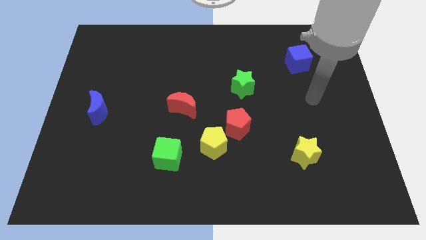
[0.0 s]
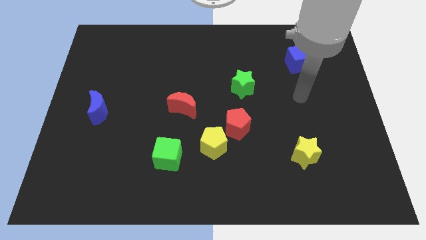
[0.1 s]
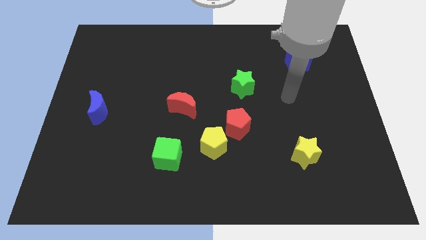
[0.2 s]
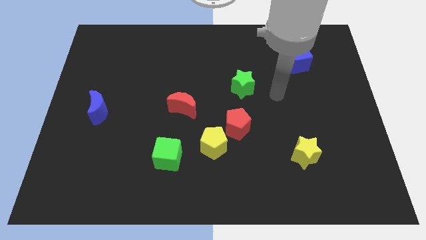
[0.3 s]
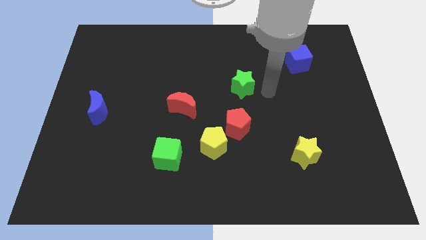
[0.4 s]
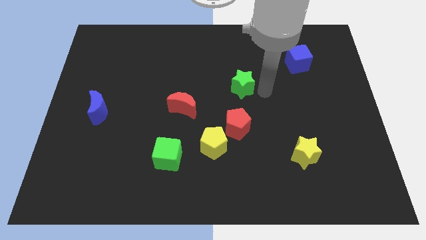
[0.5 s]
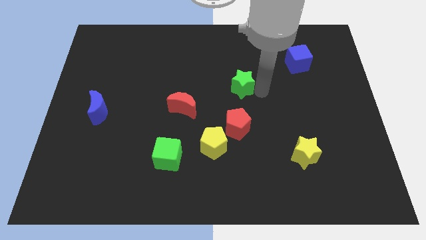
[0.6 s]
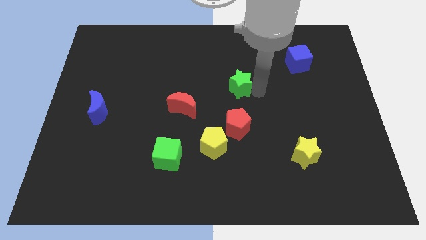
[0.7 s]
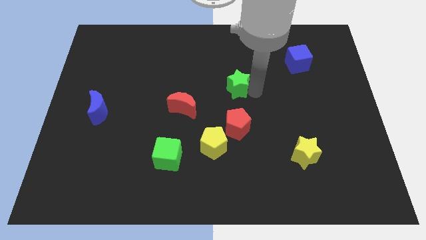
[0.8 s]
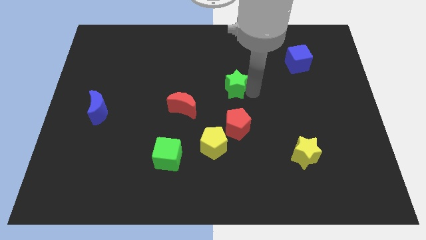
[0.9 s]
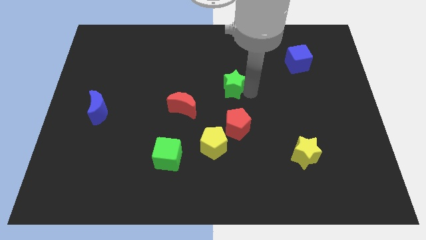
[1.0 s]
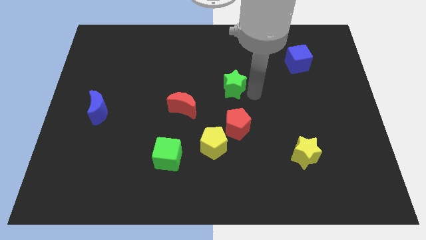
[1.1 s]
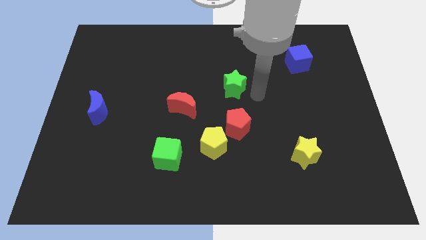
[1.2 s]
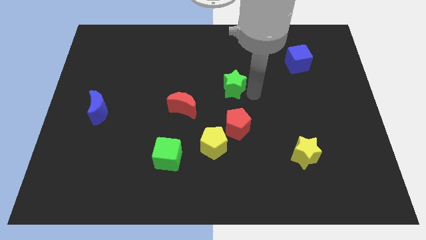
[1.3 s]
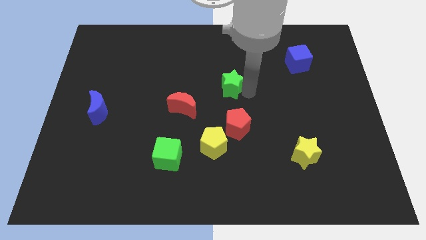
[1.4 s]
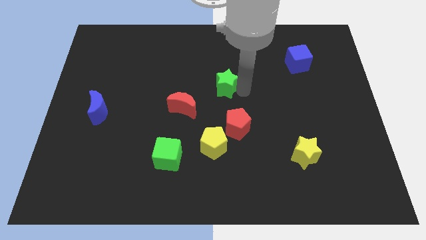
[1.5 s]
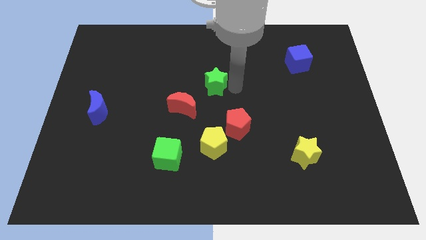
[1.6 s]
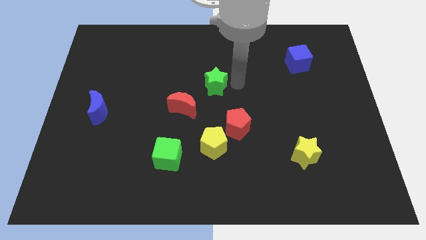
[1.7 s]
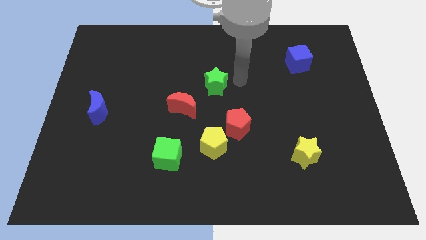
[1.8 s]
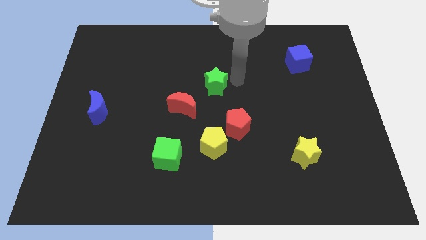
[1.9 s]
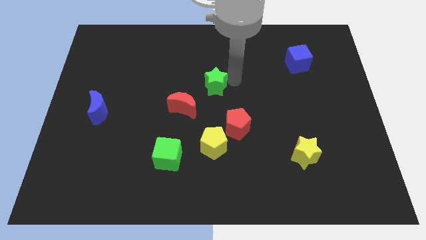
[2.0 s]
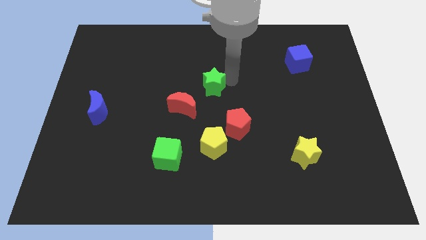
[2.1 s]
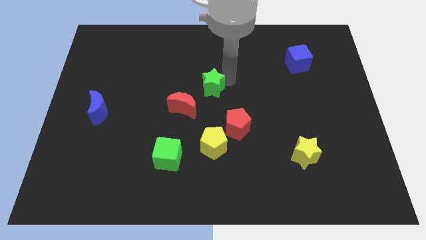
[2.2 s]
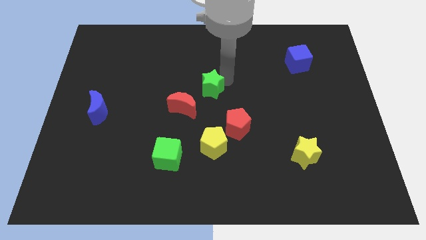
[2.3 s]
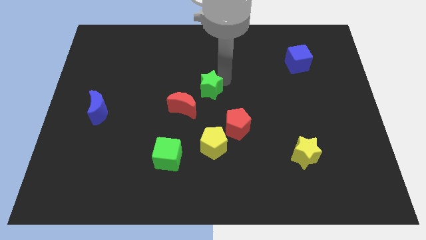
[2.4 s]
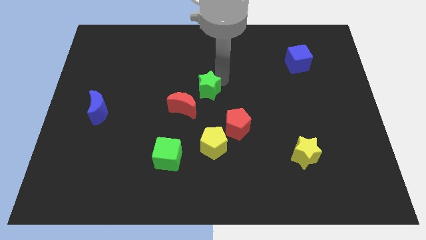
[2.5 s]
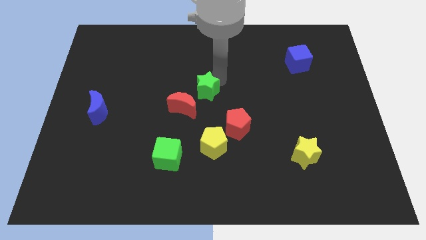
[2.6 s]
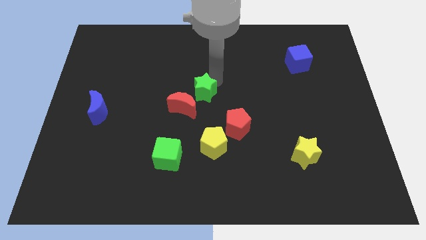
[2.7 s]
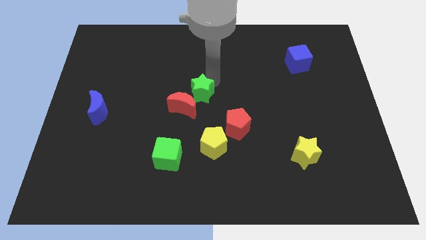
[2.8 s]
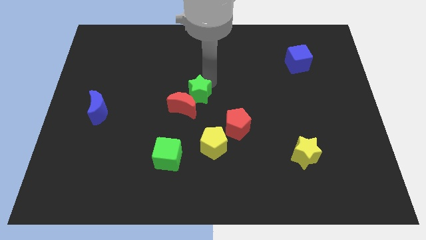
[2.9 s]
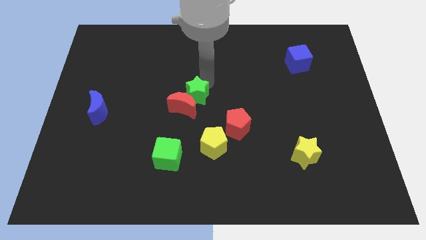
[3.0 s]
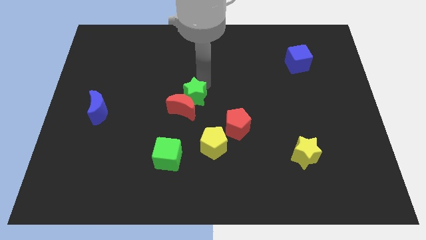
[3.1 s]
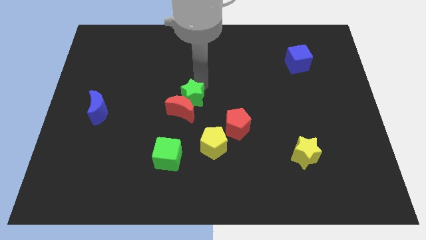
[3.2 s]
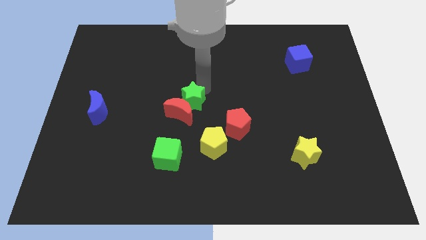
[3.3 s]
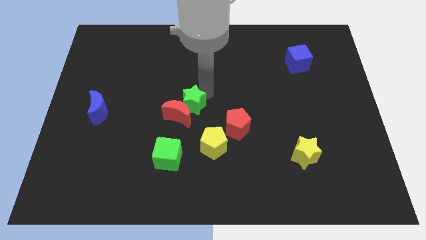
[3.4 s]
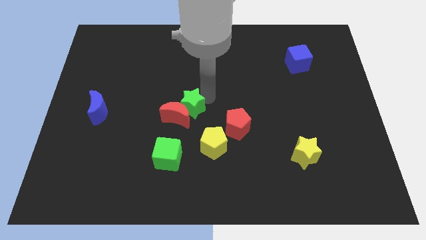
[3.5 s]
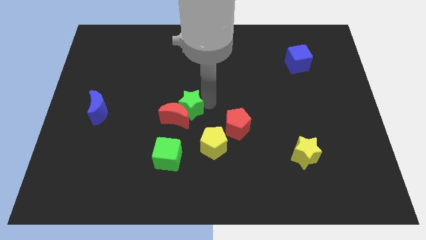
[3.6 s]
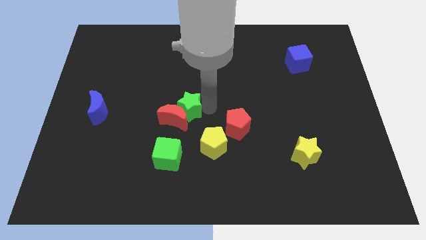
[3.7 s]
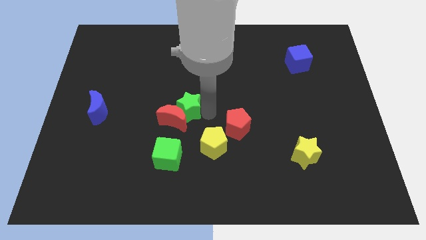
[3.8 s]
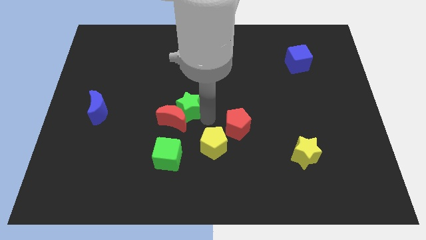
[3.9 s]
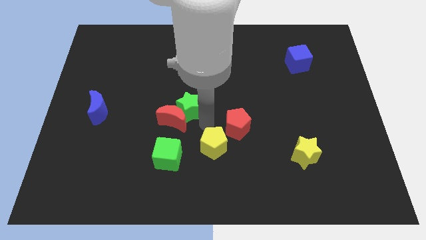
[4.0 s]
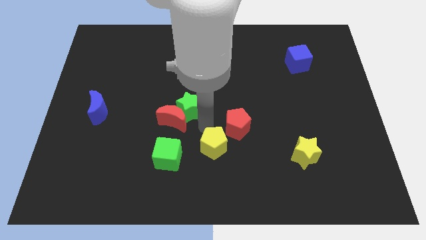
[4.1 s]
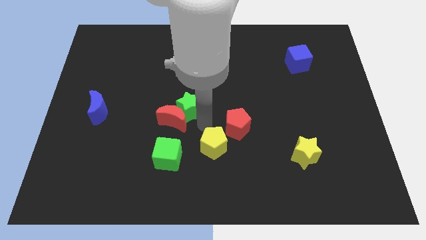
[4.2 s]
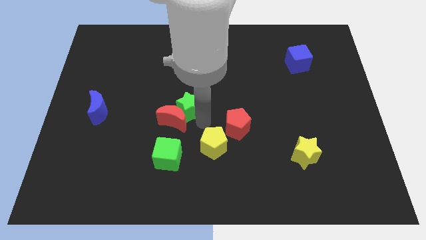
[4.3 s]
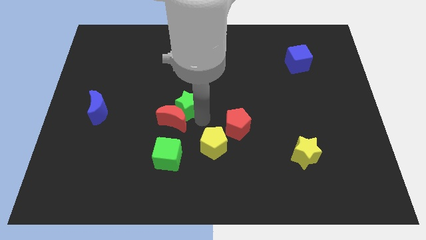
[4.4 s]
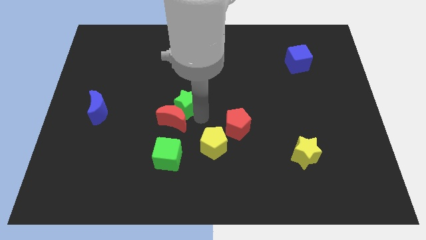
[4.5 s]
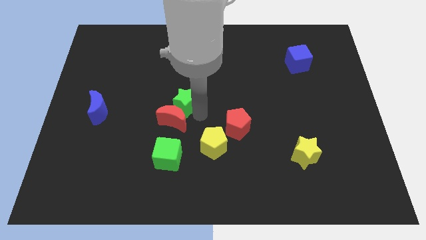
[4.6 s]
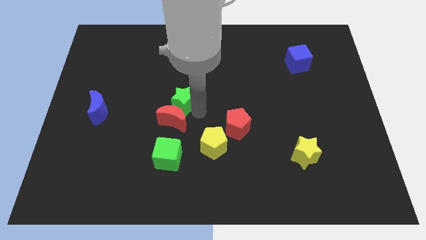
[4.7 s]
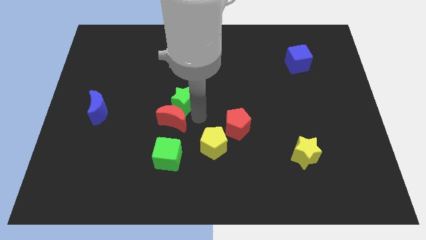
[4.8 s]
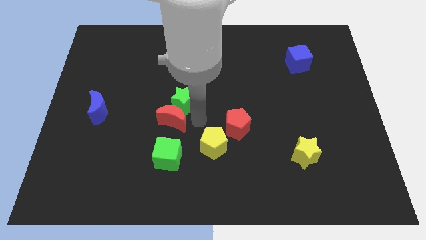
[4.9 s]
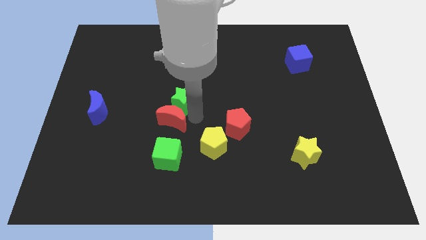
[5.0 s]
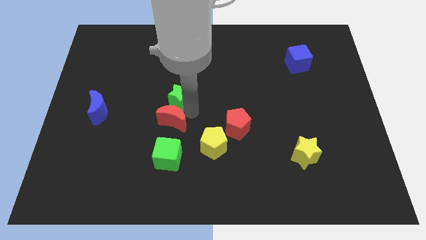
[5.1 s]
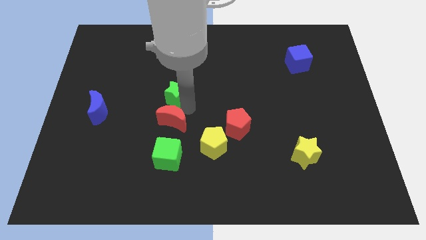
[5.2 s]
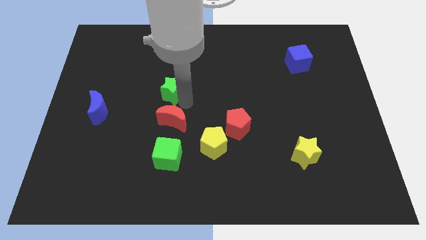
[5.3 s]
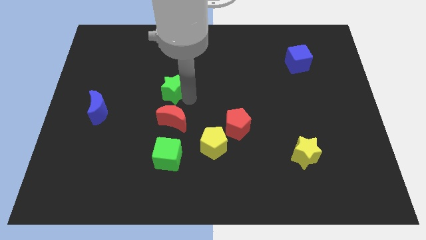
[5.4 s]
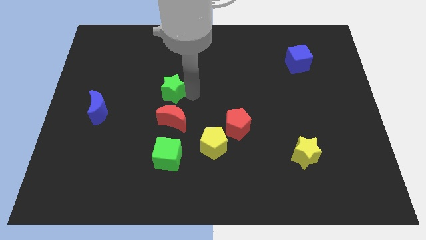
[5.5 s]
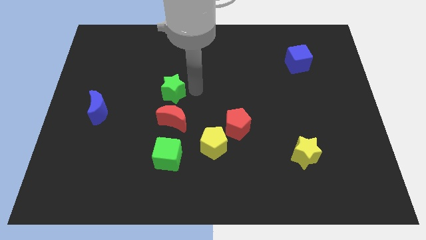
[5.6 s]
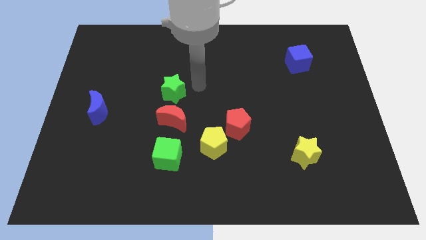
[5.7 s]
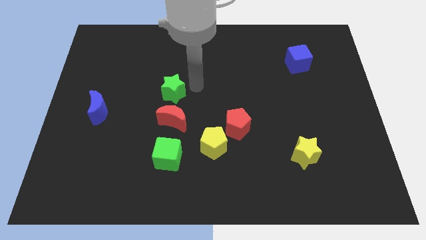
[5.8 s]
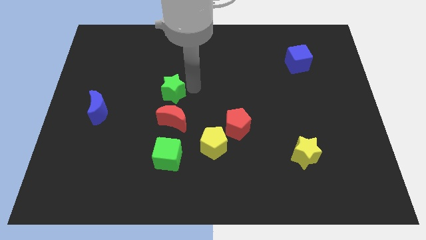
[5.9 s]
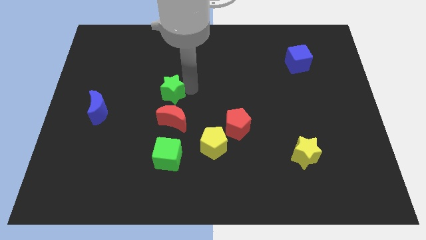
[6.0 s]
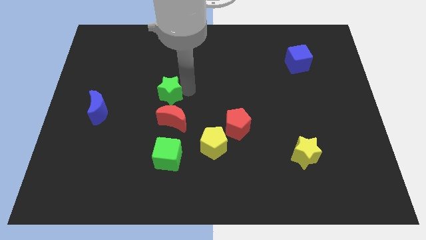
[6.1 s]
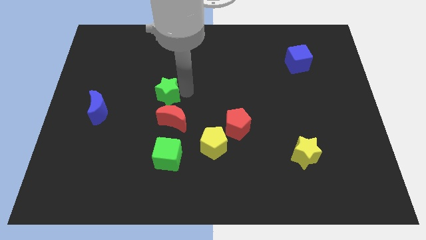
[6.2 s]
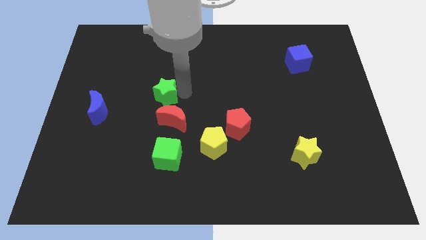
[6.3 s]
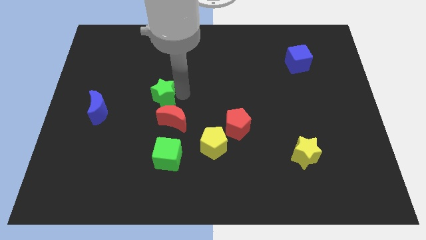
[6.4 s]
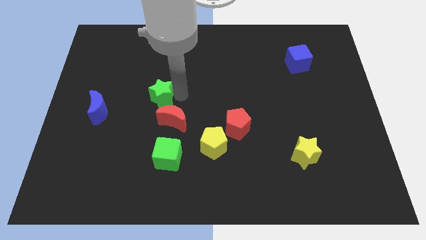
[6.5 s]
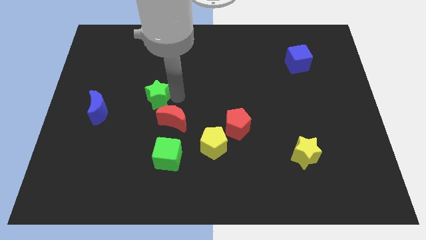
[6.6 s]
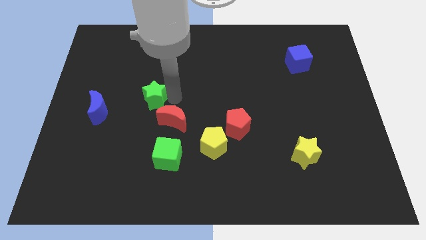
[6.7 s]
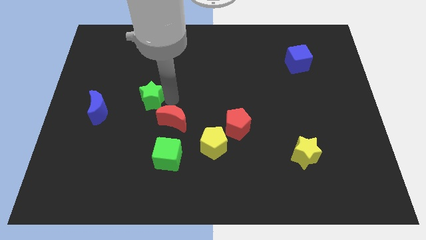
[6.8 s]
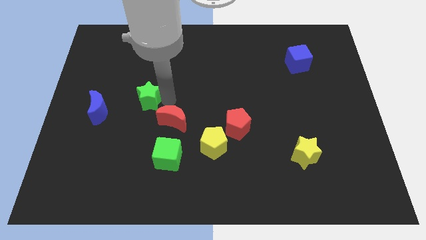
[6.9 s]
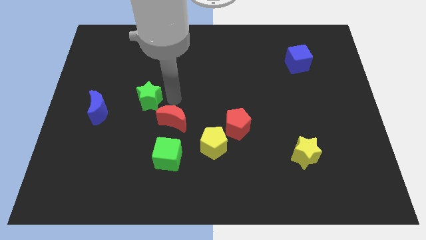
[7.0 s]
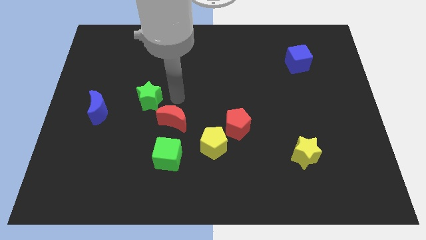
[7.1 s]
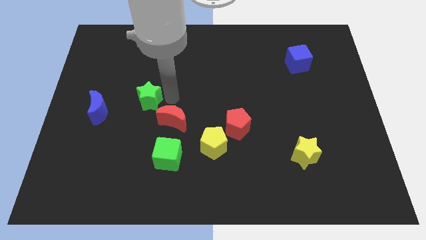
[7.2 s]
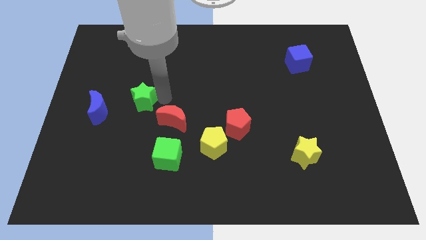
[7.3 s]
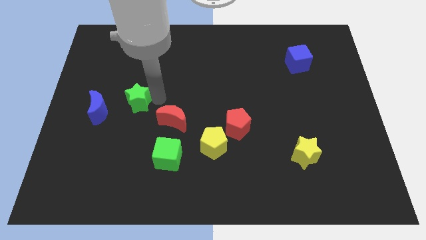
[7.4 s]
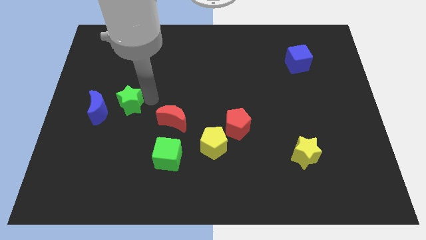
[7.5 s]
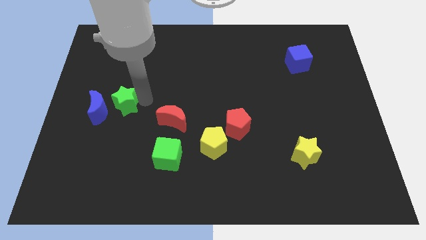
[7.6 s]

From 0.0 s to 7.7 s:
put the green star to the blue moon
